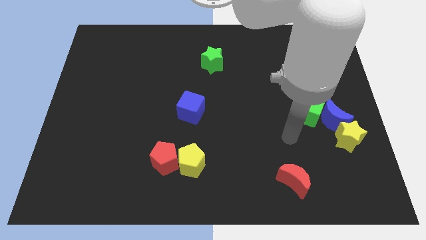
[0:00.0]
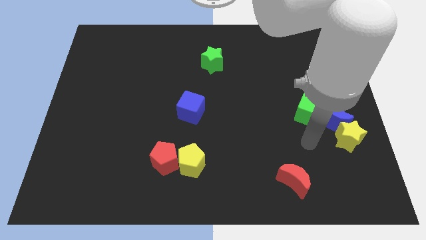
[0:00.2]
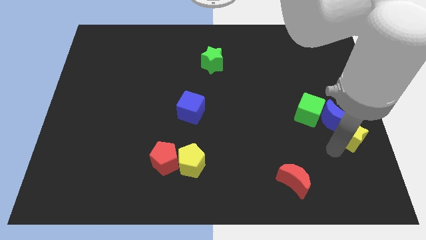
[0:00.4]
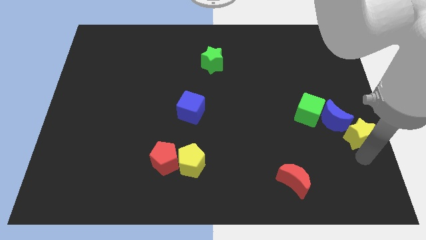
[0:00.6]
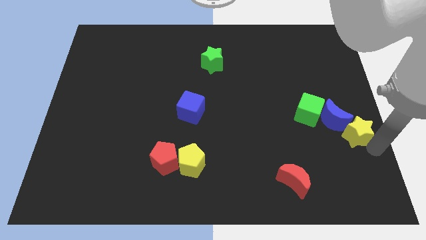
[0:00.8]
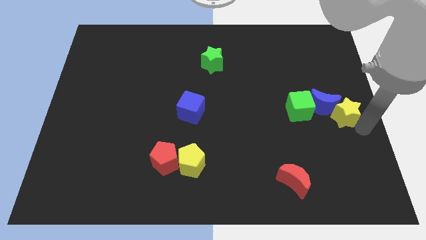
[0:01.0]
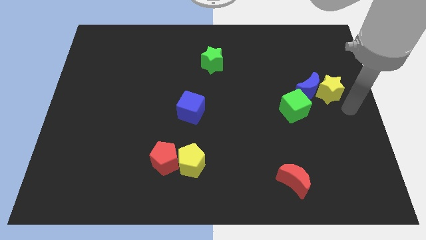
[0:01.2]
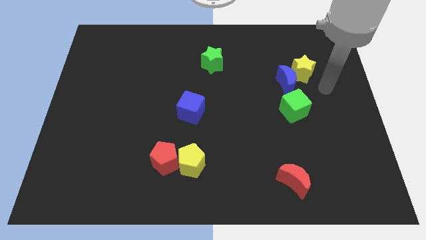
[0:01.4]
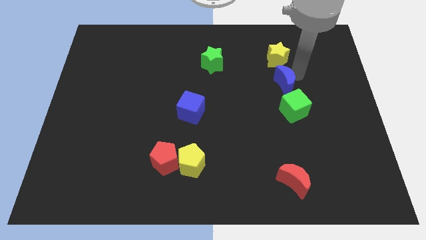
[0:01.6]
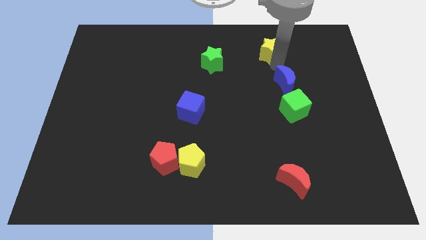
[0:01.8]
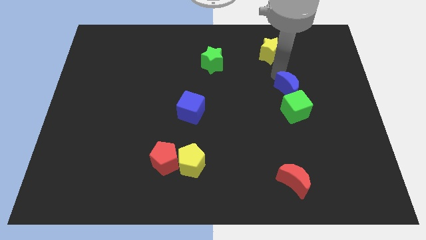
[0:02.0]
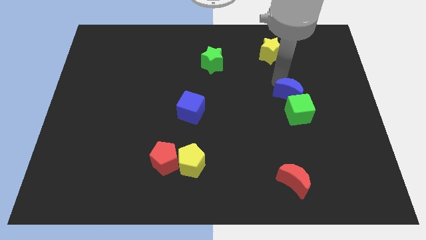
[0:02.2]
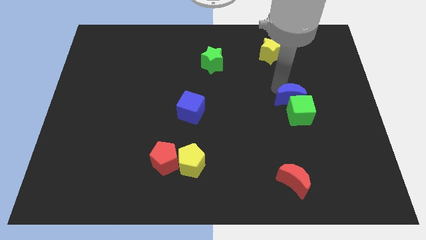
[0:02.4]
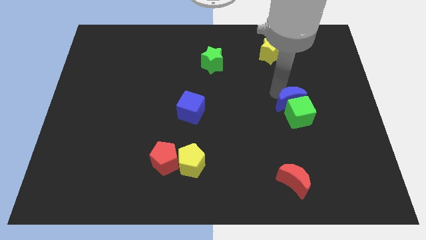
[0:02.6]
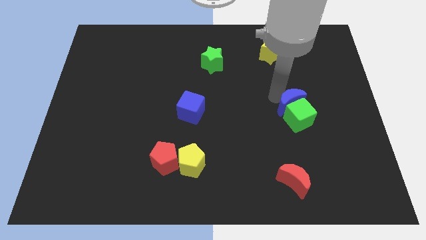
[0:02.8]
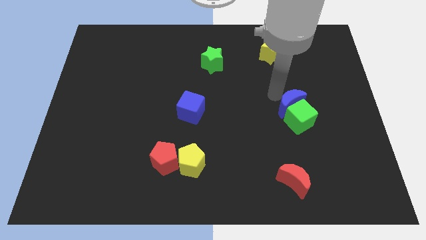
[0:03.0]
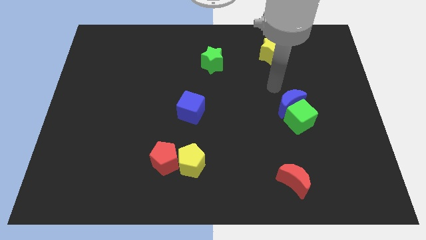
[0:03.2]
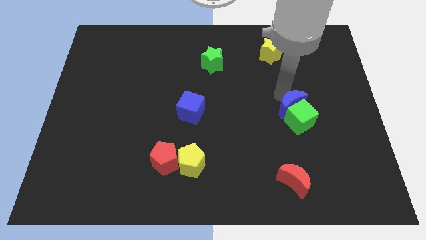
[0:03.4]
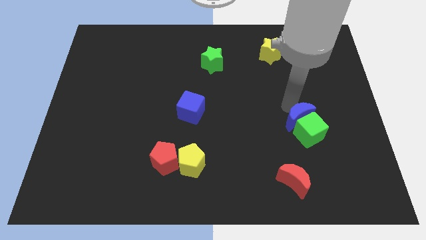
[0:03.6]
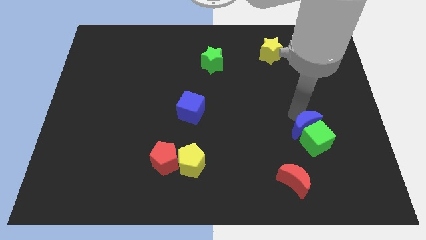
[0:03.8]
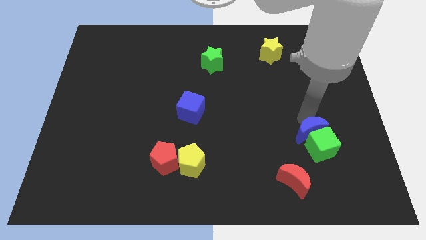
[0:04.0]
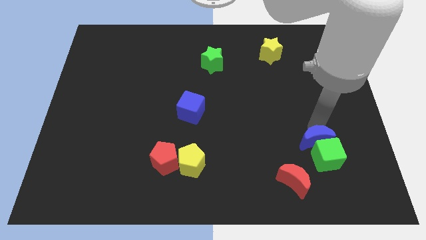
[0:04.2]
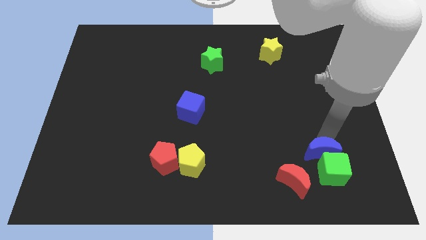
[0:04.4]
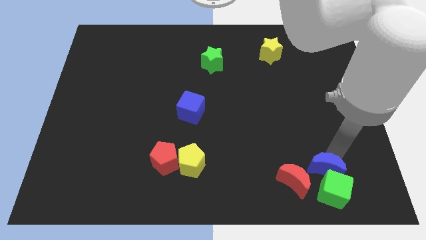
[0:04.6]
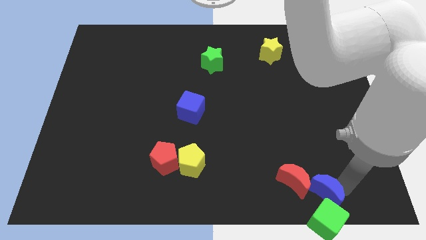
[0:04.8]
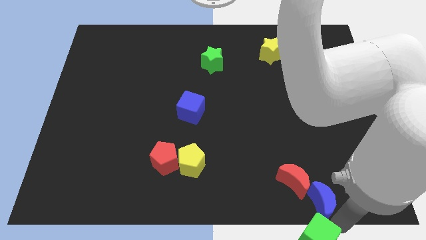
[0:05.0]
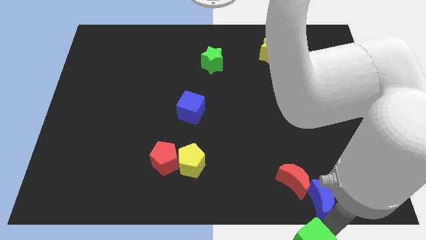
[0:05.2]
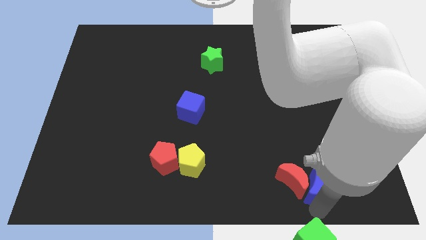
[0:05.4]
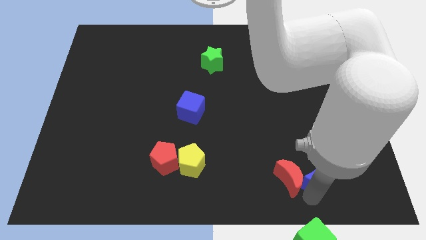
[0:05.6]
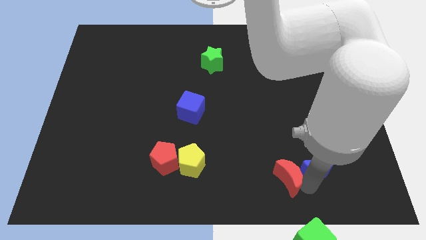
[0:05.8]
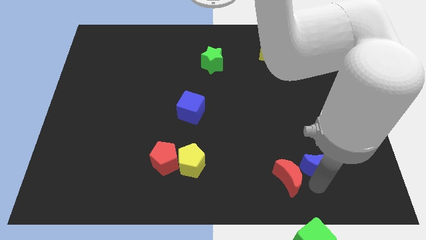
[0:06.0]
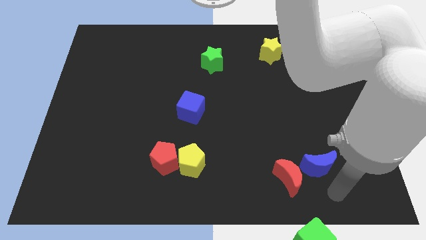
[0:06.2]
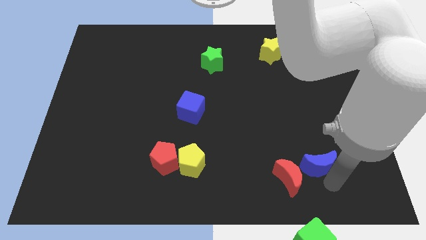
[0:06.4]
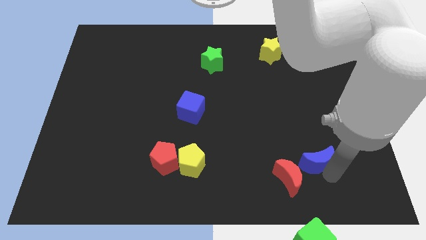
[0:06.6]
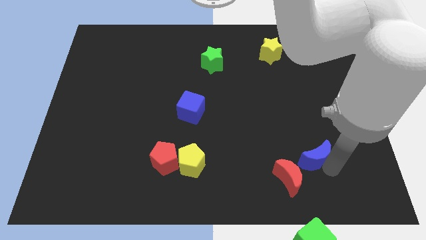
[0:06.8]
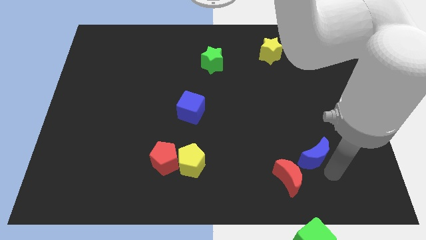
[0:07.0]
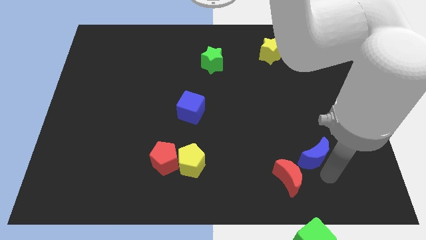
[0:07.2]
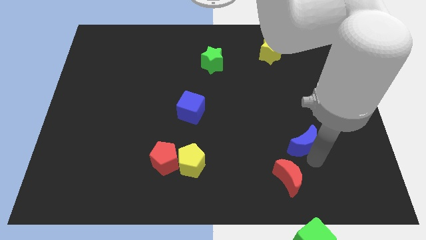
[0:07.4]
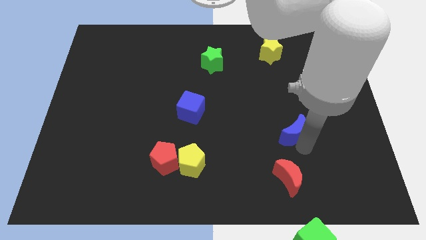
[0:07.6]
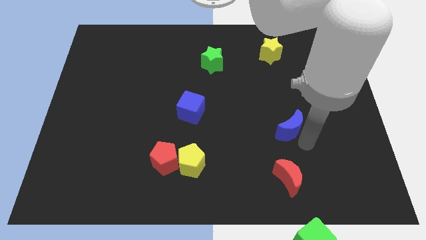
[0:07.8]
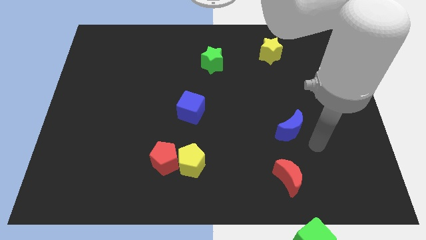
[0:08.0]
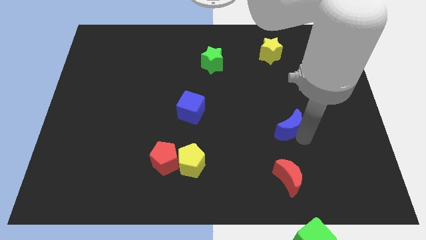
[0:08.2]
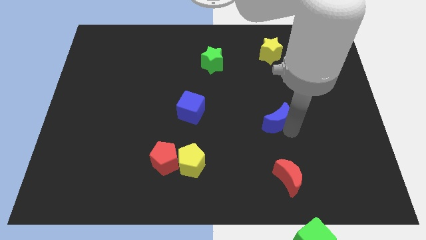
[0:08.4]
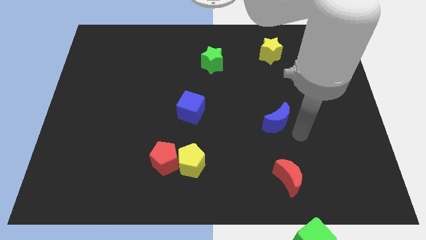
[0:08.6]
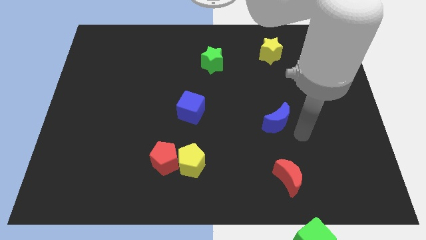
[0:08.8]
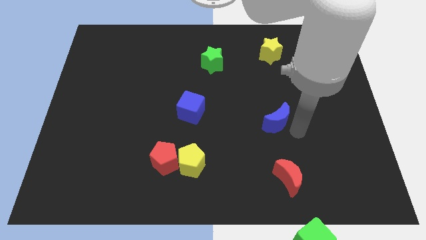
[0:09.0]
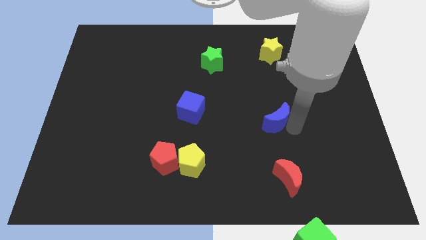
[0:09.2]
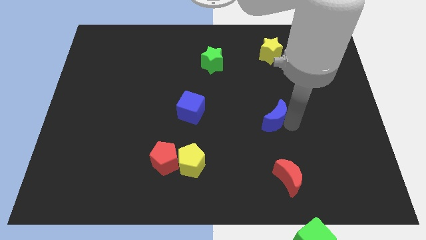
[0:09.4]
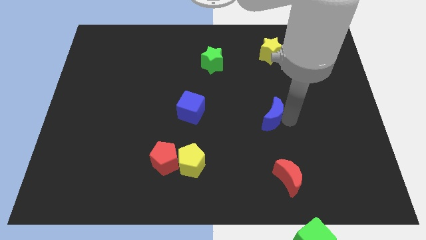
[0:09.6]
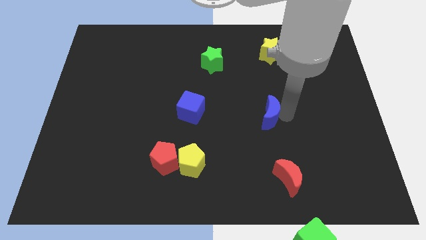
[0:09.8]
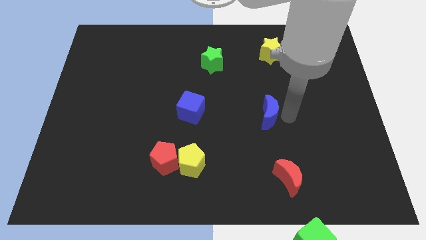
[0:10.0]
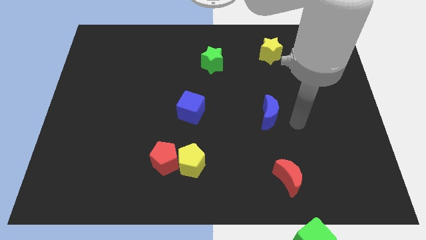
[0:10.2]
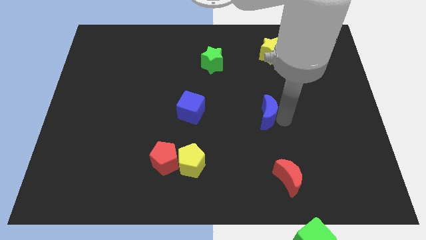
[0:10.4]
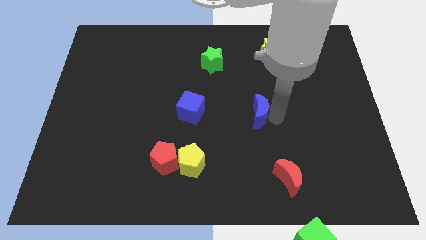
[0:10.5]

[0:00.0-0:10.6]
put the blue moon to the middle of the board
